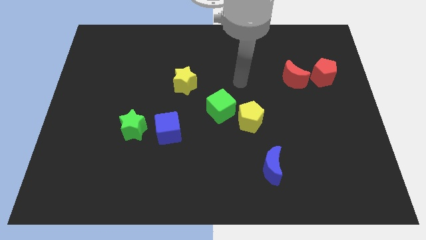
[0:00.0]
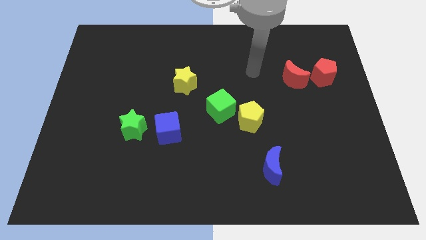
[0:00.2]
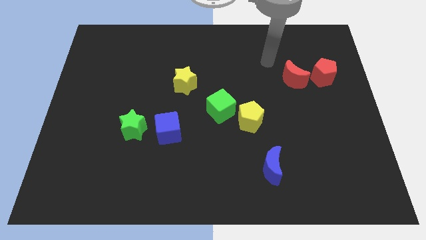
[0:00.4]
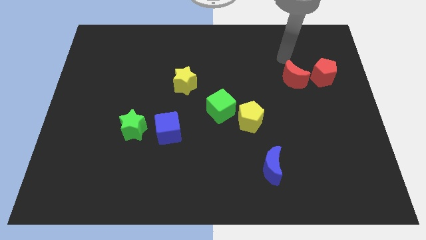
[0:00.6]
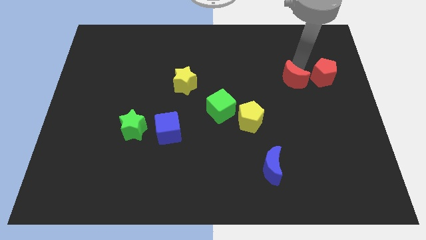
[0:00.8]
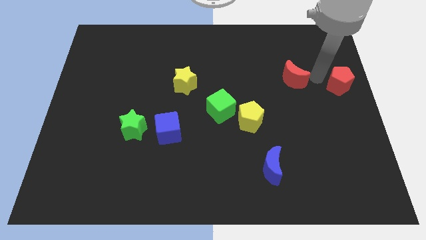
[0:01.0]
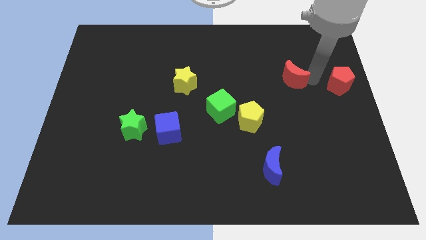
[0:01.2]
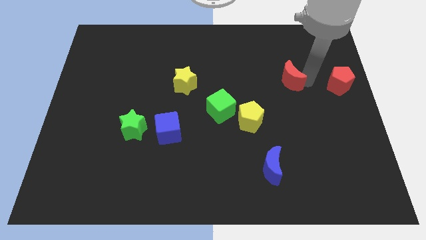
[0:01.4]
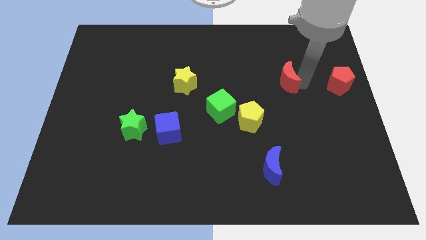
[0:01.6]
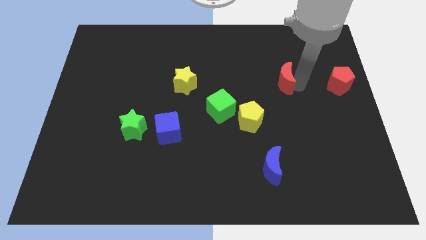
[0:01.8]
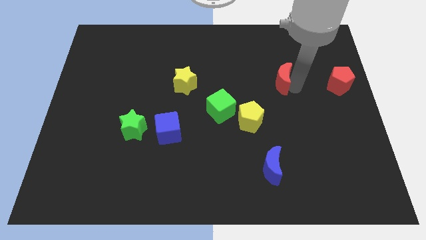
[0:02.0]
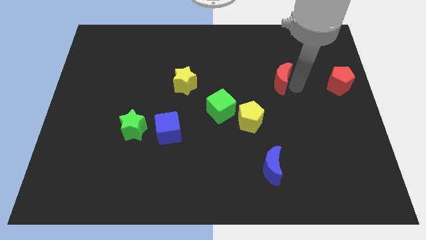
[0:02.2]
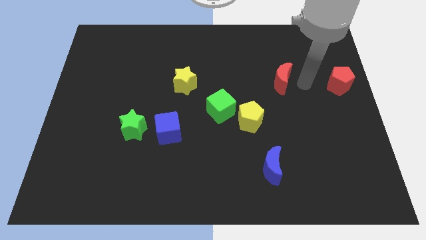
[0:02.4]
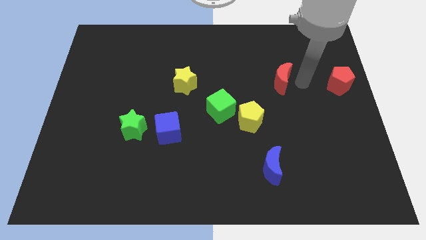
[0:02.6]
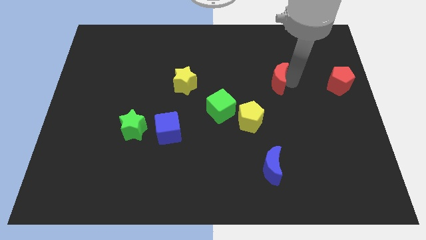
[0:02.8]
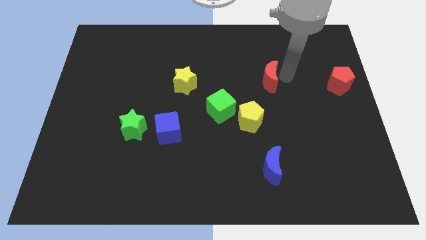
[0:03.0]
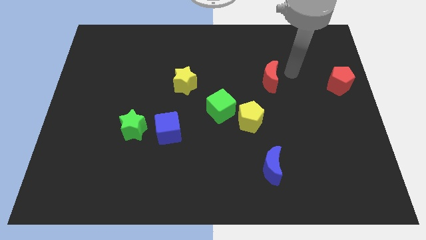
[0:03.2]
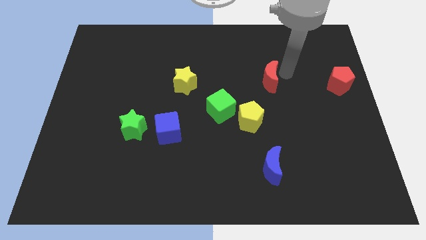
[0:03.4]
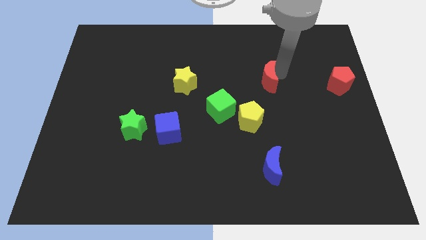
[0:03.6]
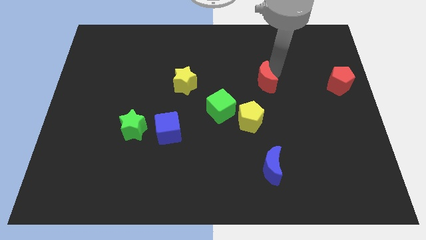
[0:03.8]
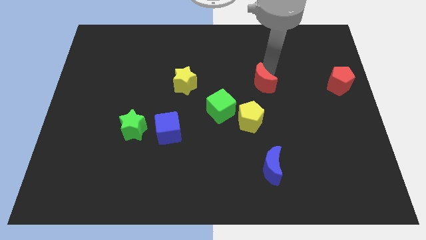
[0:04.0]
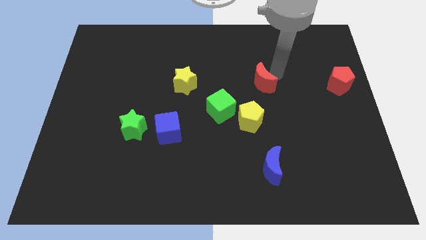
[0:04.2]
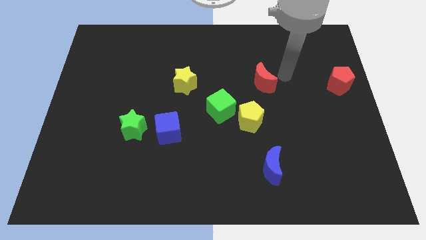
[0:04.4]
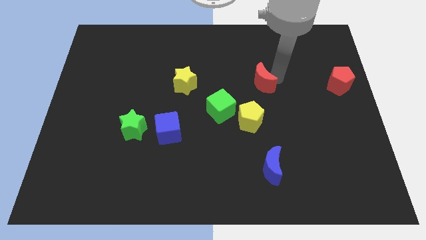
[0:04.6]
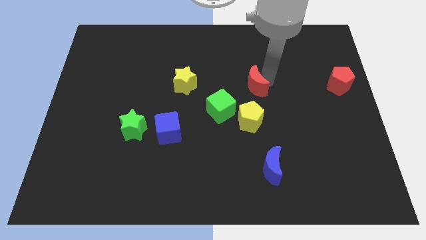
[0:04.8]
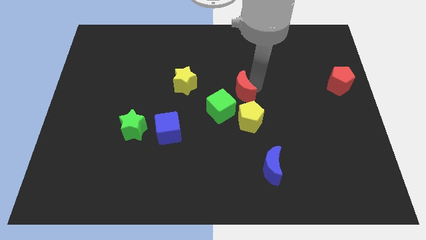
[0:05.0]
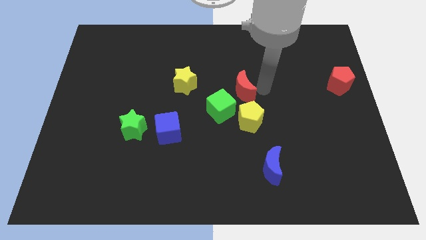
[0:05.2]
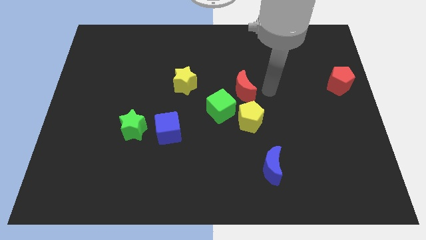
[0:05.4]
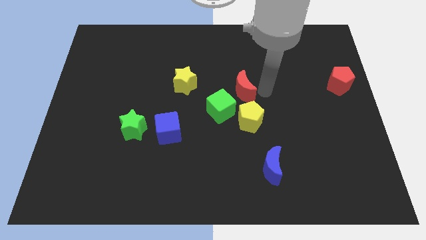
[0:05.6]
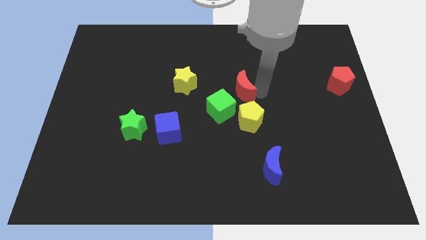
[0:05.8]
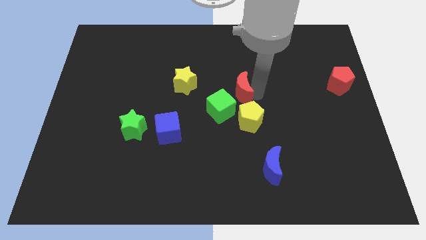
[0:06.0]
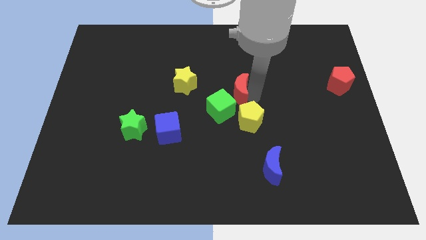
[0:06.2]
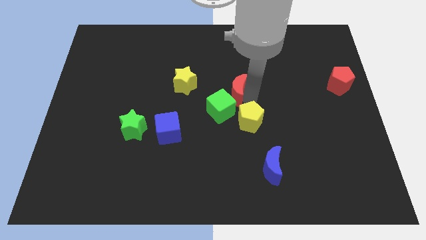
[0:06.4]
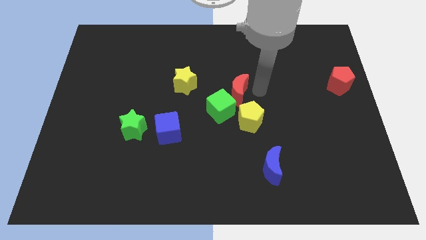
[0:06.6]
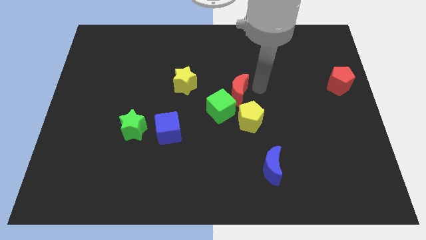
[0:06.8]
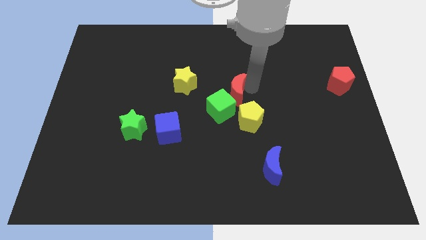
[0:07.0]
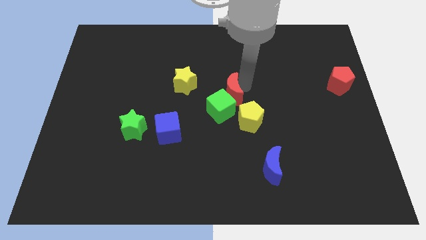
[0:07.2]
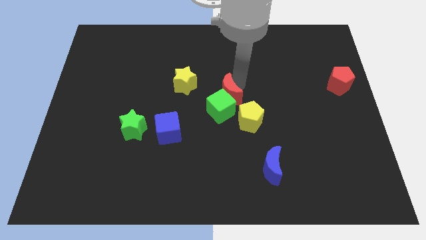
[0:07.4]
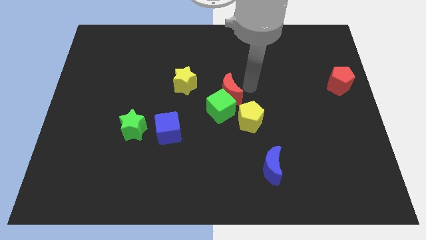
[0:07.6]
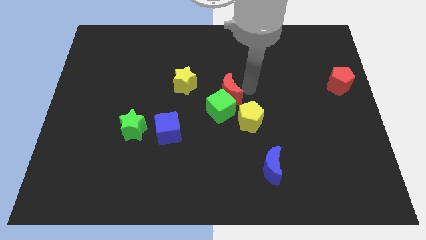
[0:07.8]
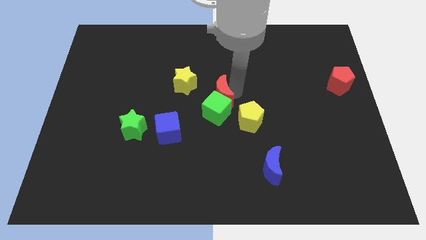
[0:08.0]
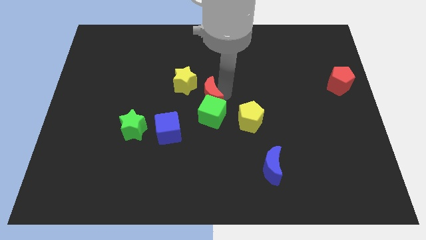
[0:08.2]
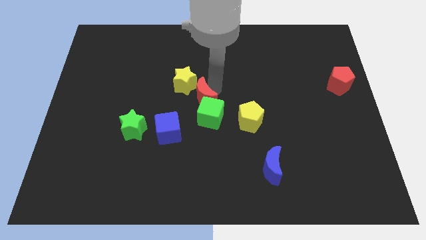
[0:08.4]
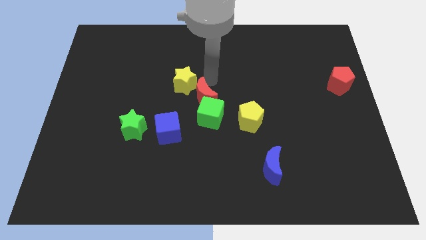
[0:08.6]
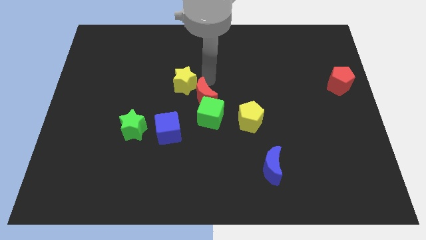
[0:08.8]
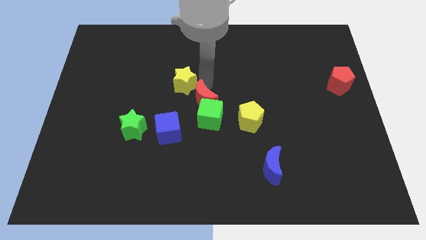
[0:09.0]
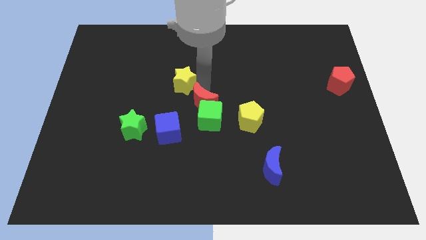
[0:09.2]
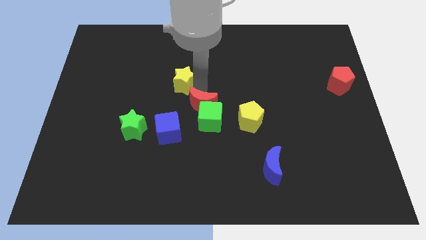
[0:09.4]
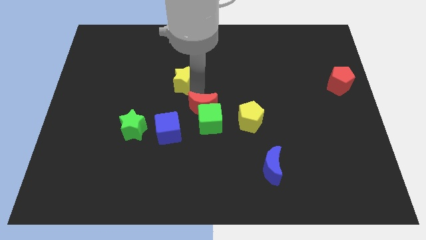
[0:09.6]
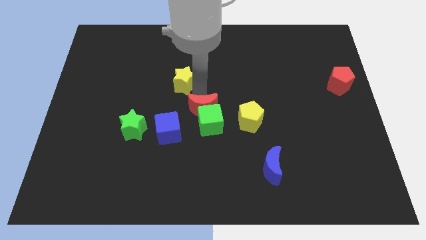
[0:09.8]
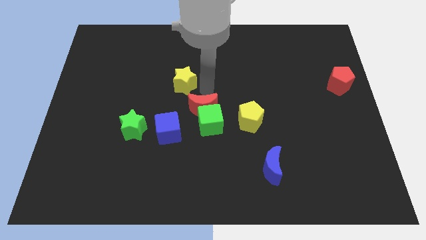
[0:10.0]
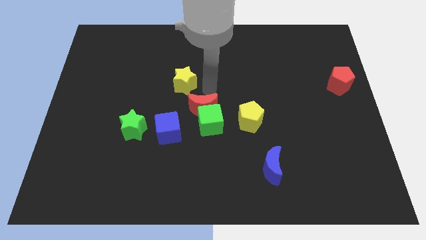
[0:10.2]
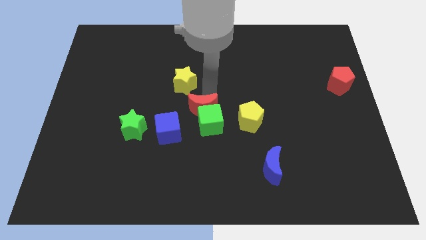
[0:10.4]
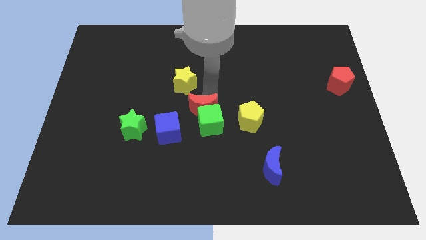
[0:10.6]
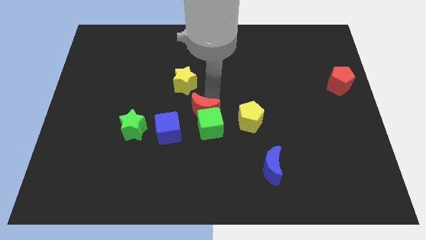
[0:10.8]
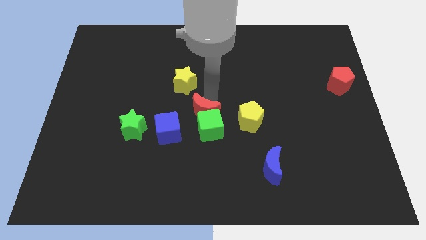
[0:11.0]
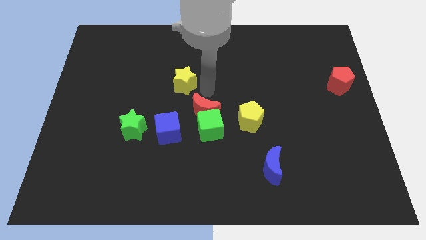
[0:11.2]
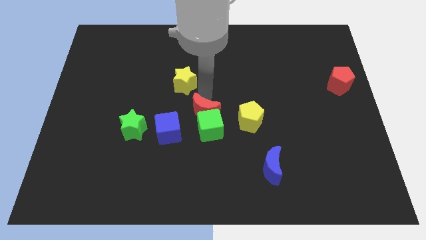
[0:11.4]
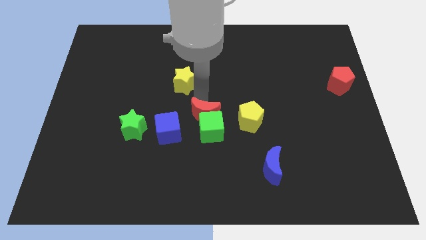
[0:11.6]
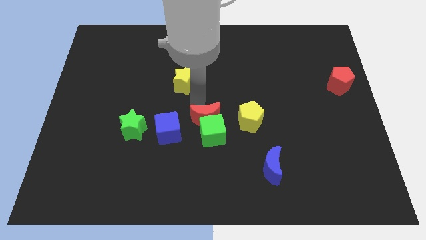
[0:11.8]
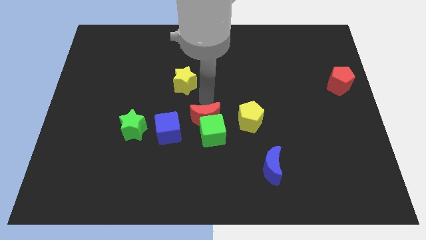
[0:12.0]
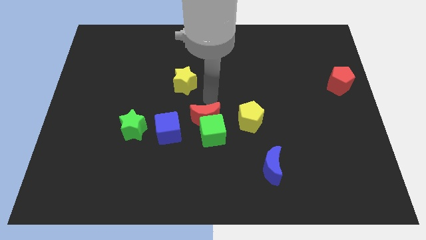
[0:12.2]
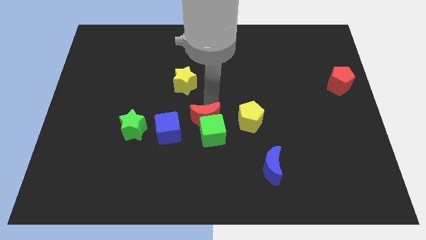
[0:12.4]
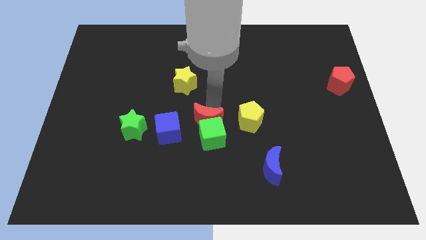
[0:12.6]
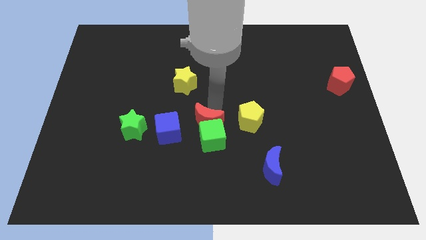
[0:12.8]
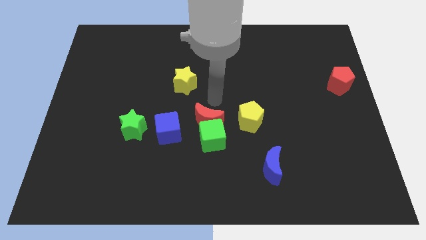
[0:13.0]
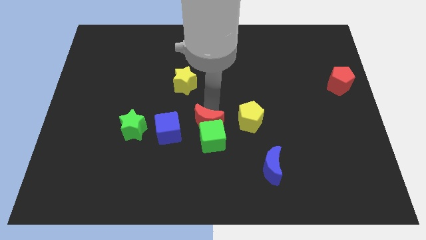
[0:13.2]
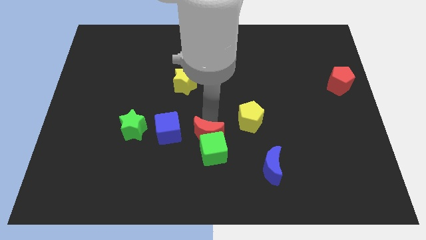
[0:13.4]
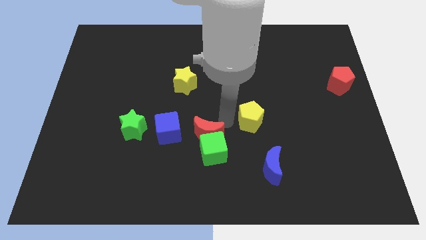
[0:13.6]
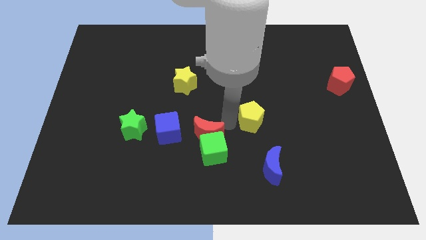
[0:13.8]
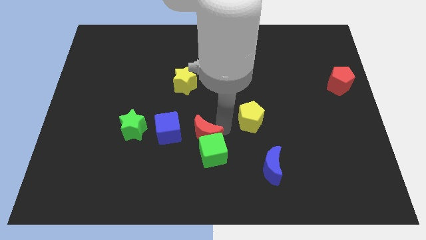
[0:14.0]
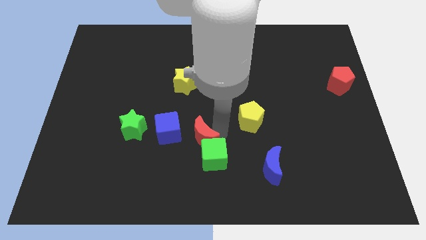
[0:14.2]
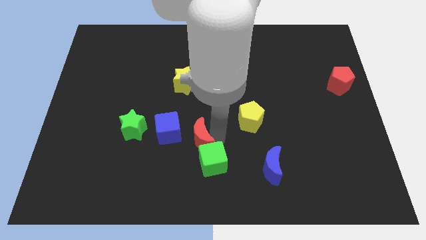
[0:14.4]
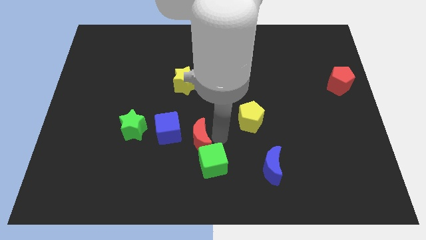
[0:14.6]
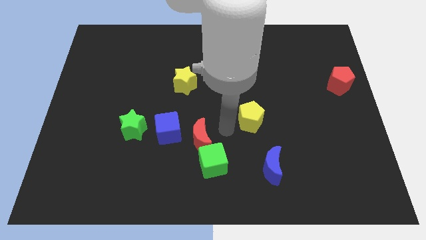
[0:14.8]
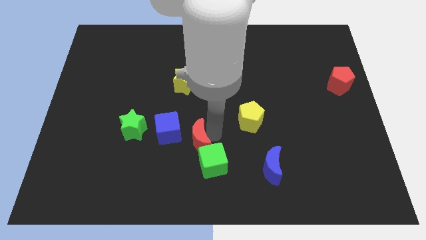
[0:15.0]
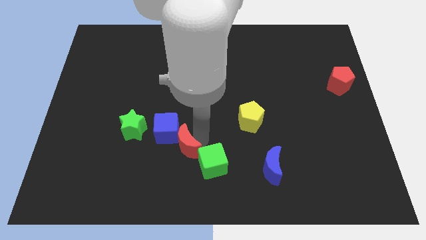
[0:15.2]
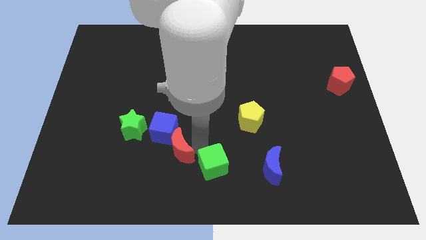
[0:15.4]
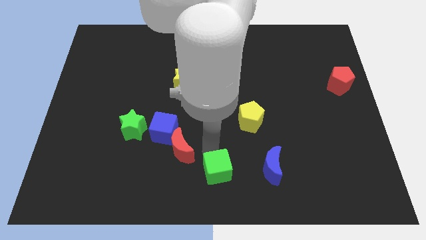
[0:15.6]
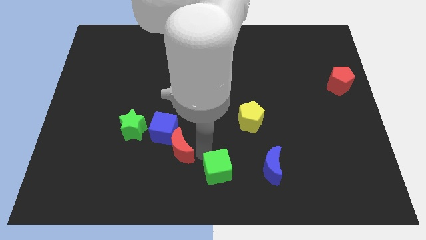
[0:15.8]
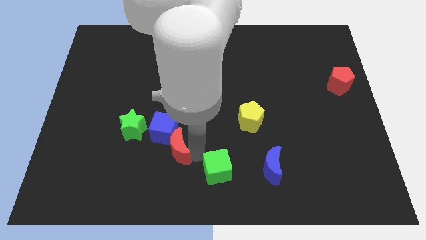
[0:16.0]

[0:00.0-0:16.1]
put the red moon to the bottom right side of the green star
